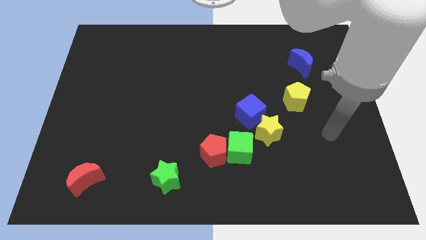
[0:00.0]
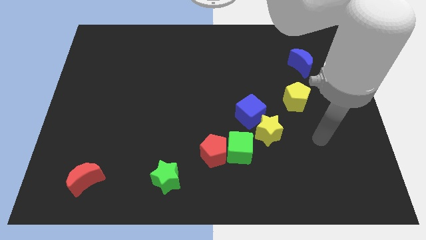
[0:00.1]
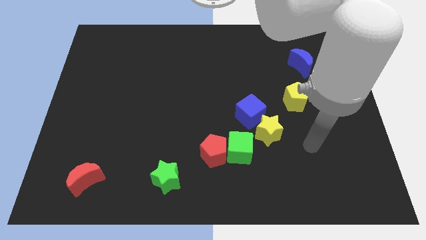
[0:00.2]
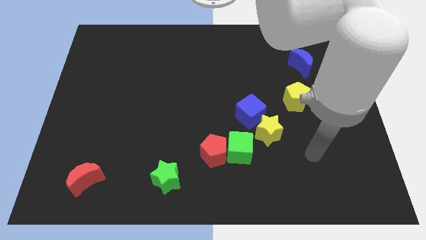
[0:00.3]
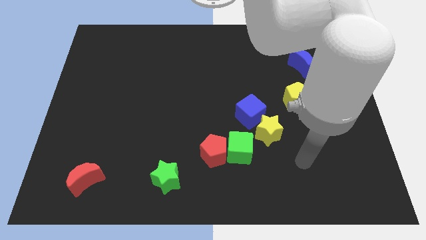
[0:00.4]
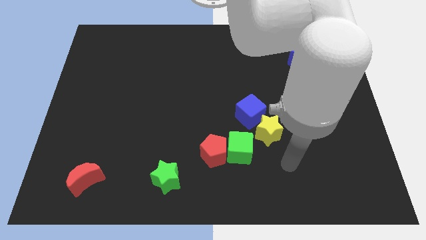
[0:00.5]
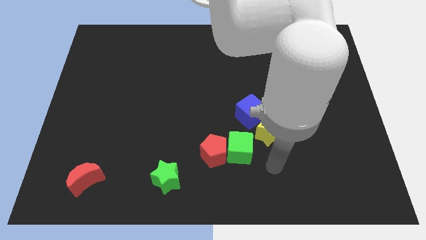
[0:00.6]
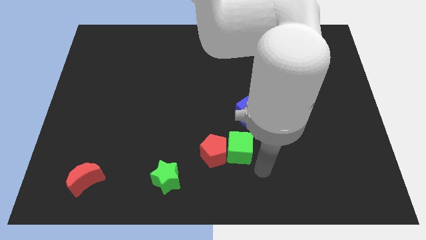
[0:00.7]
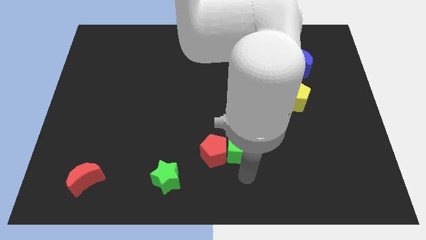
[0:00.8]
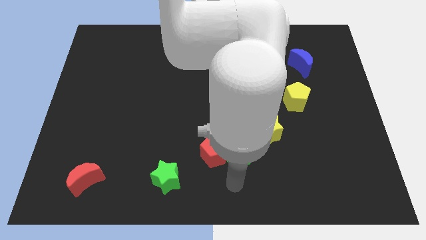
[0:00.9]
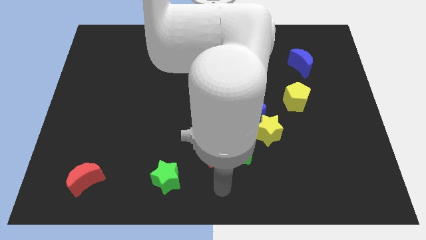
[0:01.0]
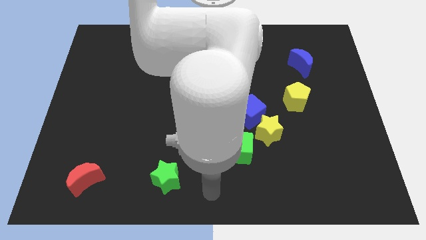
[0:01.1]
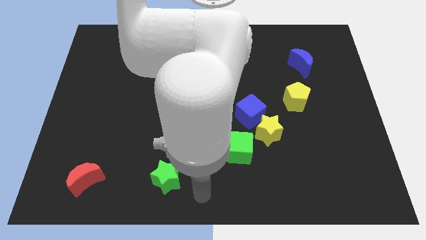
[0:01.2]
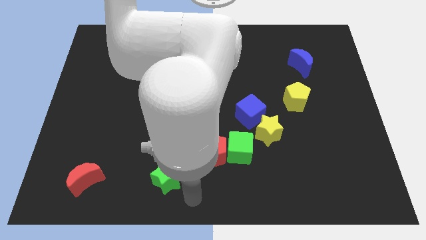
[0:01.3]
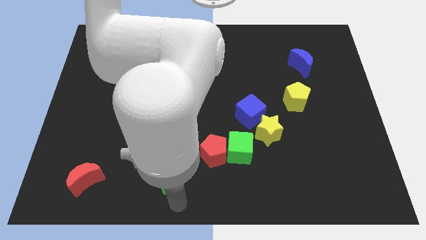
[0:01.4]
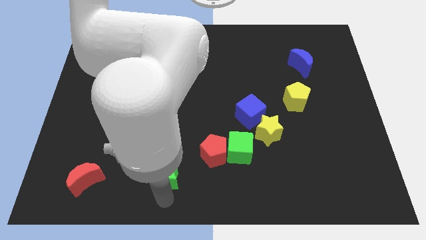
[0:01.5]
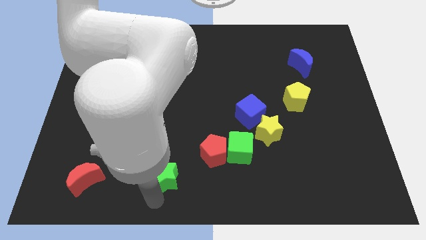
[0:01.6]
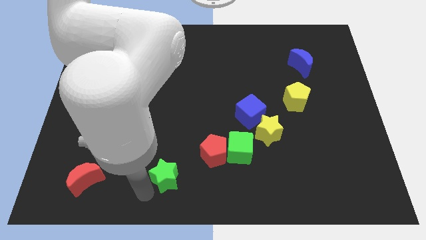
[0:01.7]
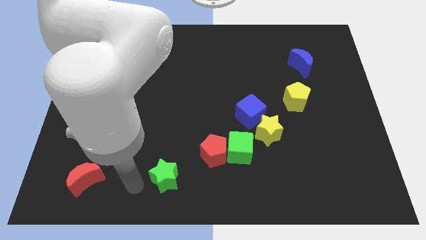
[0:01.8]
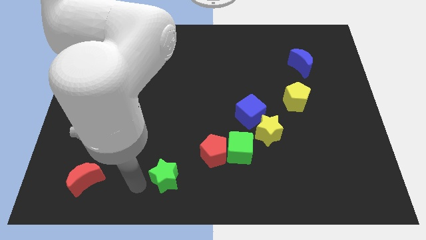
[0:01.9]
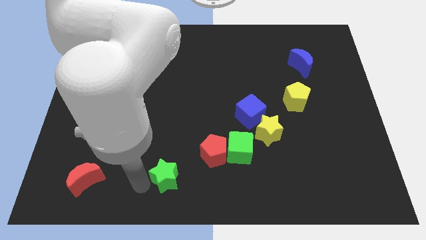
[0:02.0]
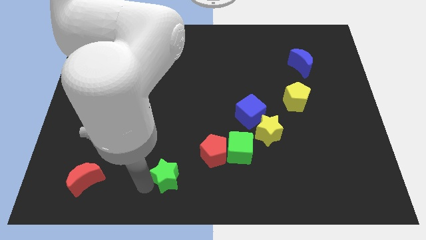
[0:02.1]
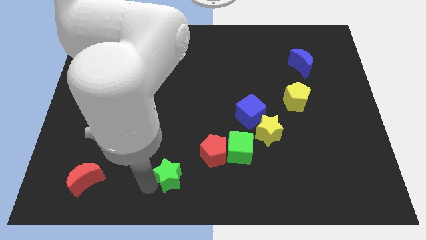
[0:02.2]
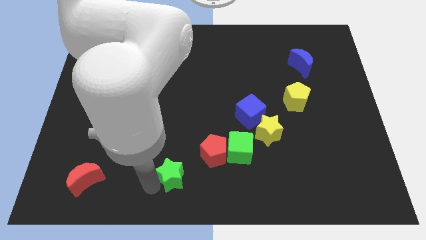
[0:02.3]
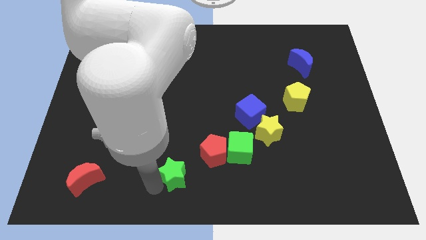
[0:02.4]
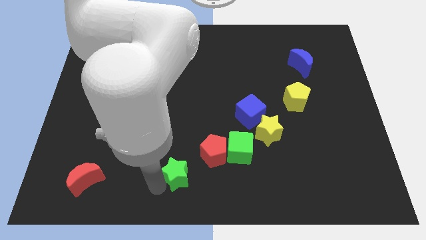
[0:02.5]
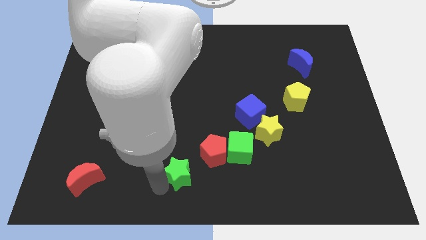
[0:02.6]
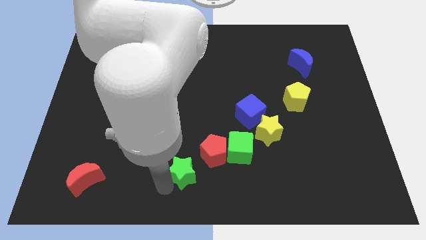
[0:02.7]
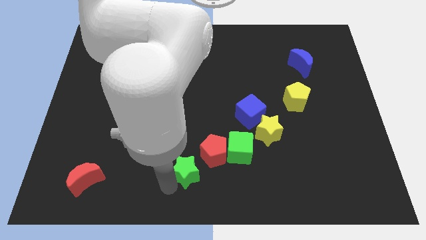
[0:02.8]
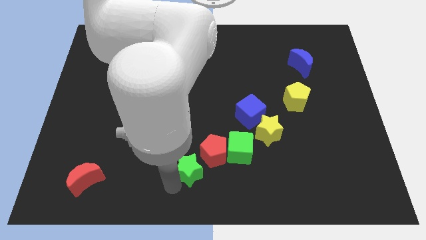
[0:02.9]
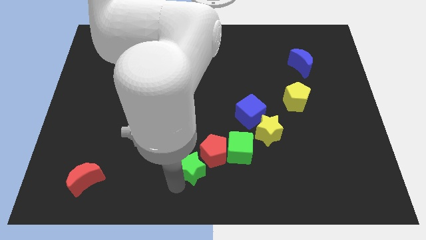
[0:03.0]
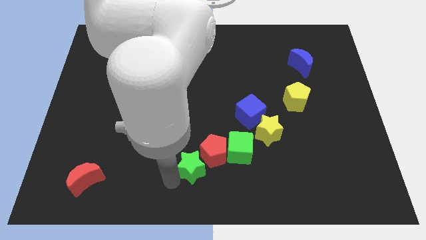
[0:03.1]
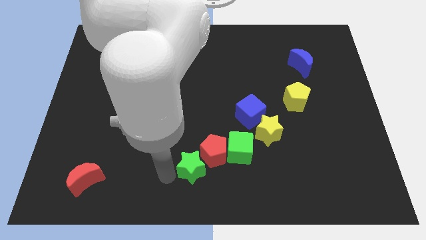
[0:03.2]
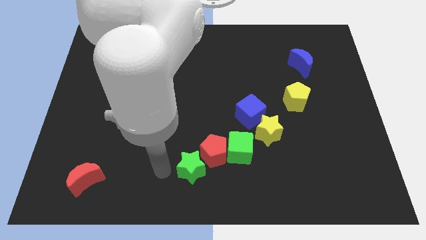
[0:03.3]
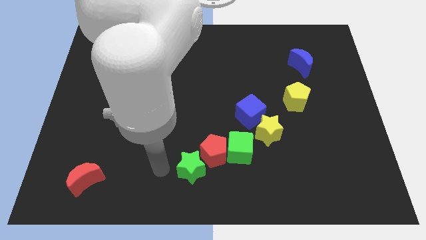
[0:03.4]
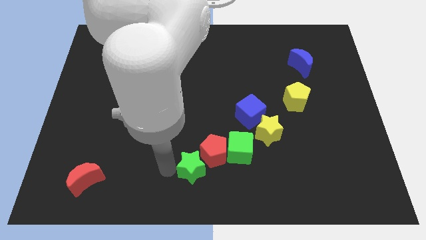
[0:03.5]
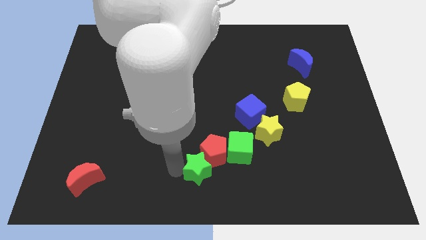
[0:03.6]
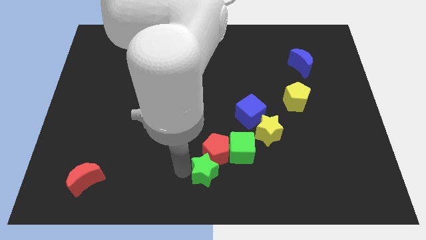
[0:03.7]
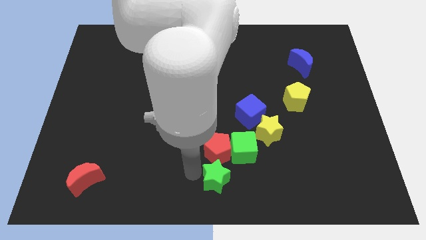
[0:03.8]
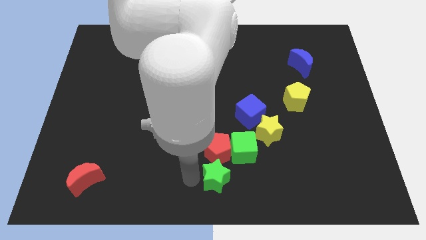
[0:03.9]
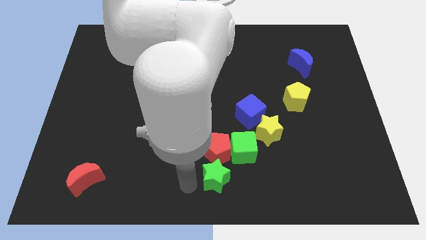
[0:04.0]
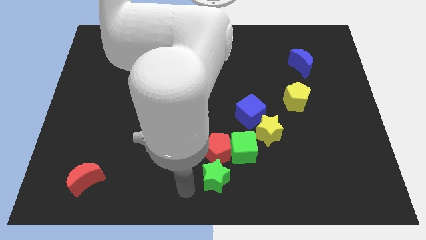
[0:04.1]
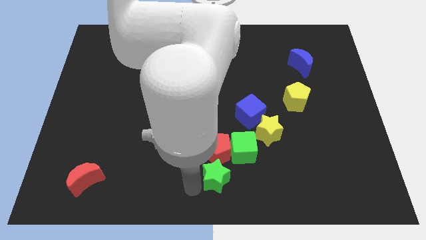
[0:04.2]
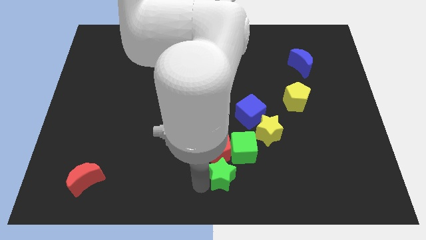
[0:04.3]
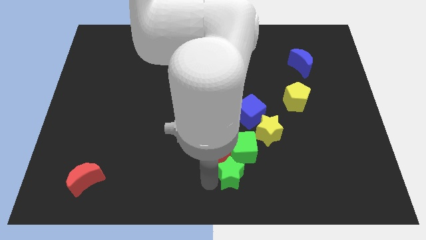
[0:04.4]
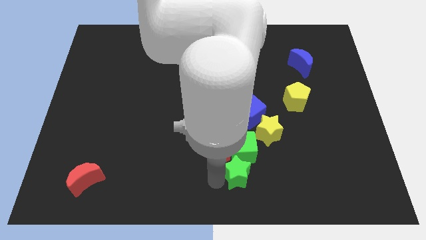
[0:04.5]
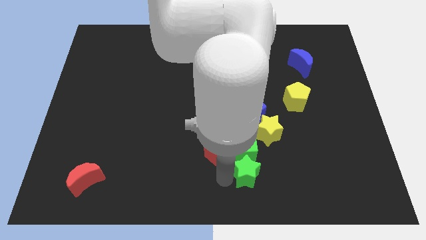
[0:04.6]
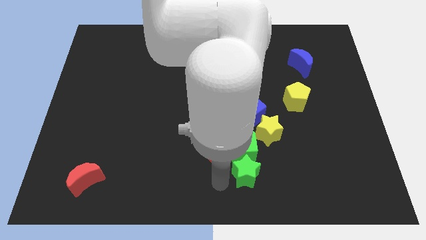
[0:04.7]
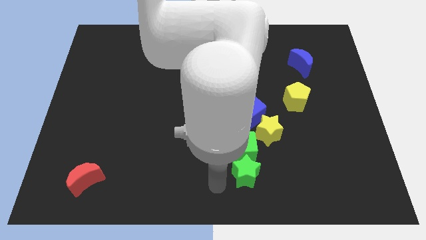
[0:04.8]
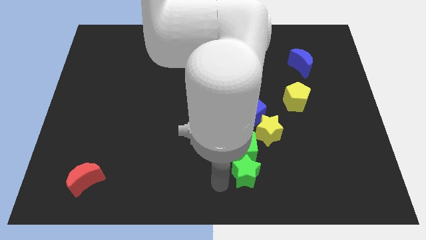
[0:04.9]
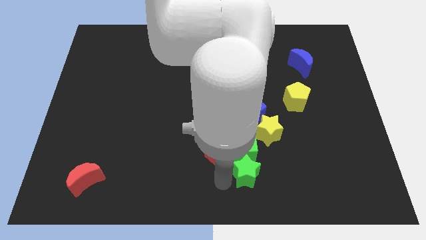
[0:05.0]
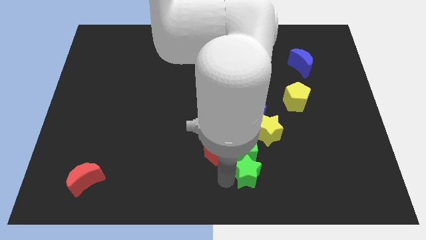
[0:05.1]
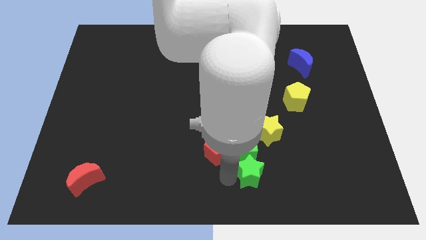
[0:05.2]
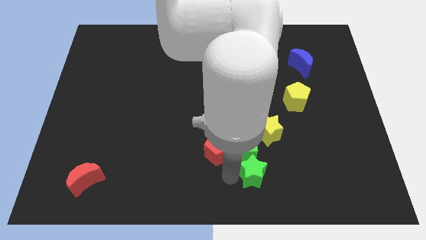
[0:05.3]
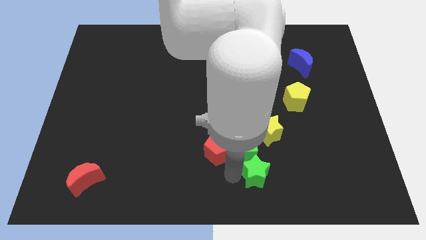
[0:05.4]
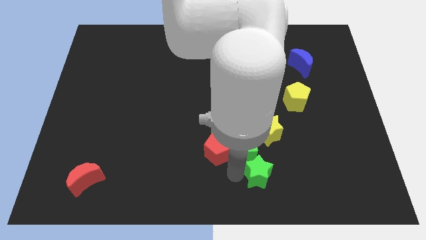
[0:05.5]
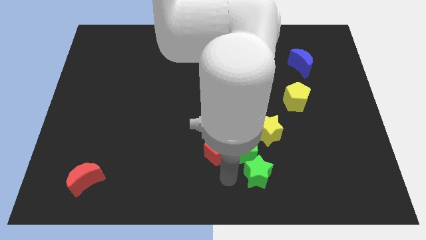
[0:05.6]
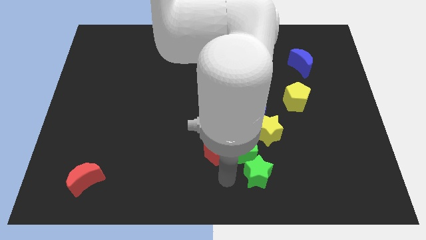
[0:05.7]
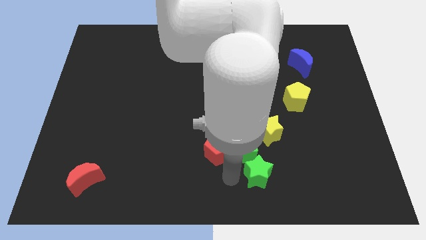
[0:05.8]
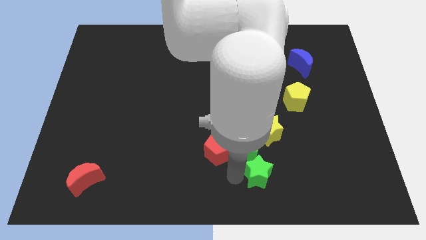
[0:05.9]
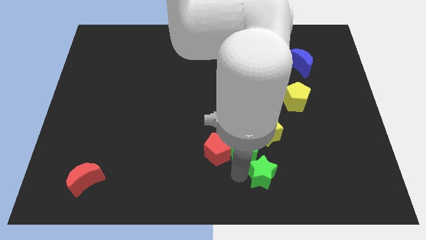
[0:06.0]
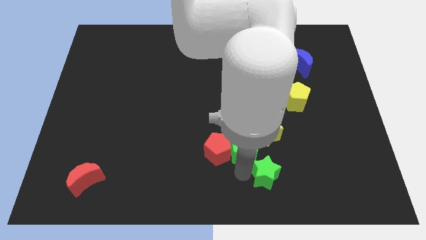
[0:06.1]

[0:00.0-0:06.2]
slide the green star right

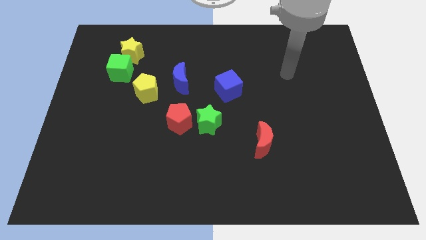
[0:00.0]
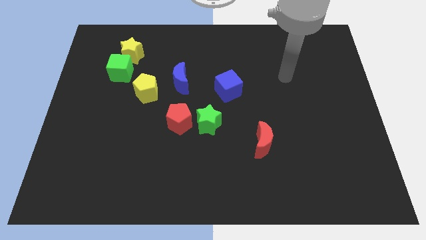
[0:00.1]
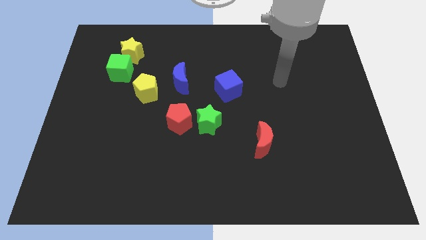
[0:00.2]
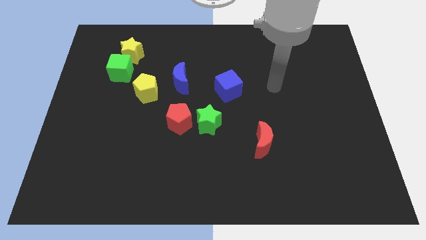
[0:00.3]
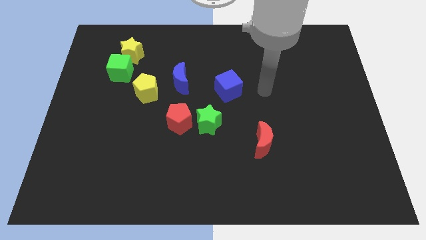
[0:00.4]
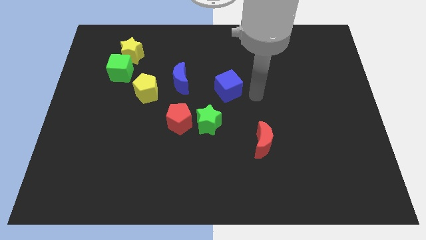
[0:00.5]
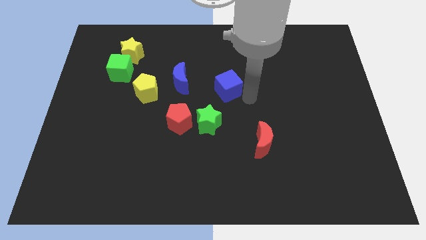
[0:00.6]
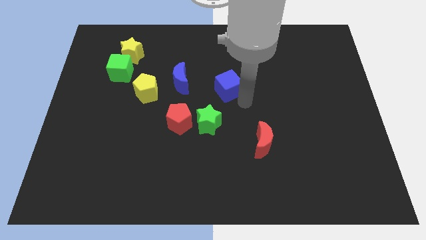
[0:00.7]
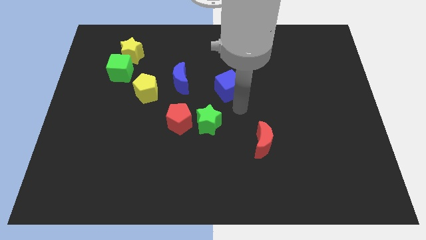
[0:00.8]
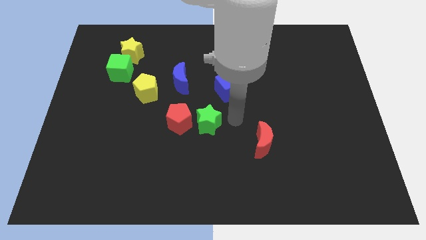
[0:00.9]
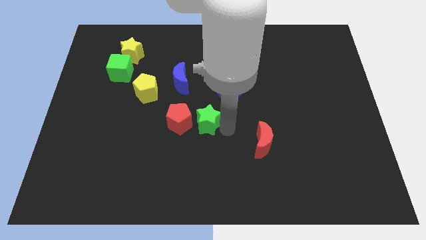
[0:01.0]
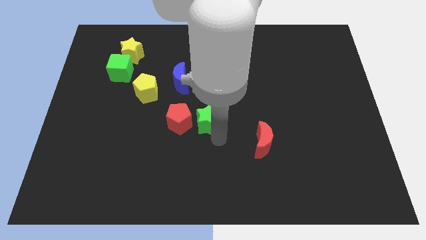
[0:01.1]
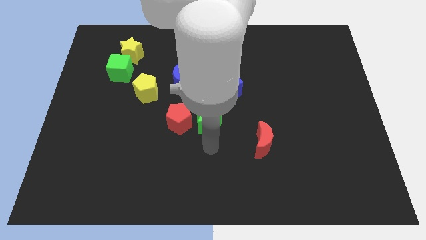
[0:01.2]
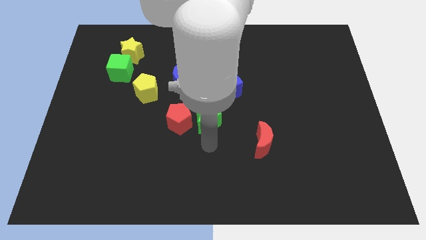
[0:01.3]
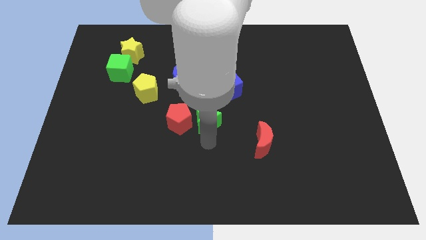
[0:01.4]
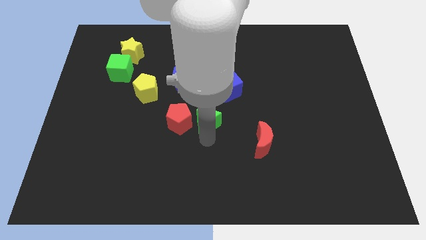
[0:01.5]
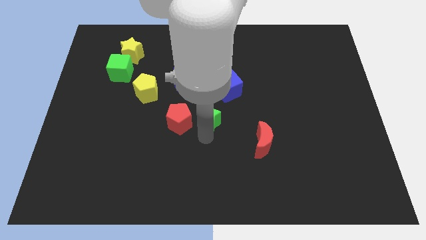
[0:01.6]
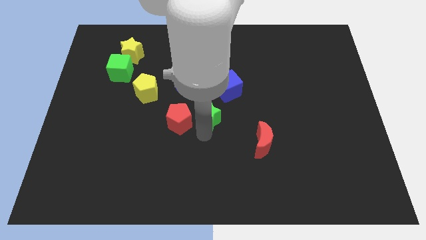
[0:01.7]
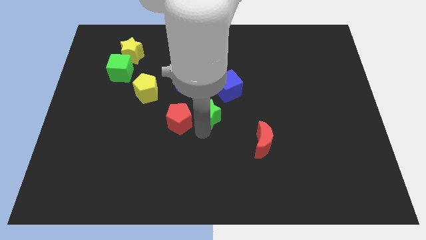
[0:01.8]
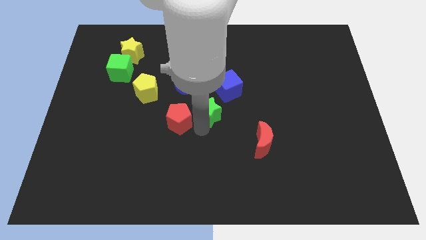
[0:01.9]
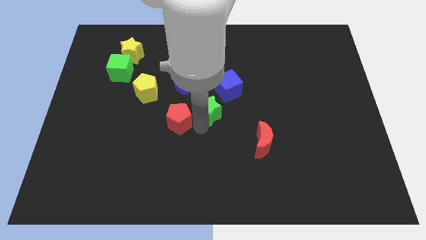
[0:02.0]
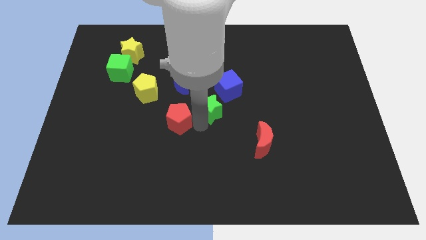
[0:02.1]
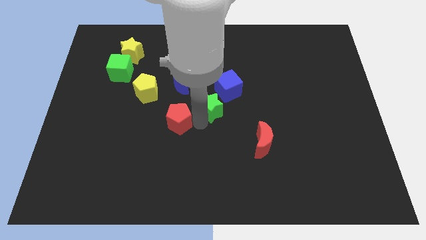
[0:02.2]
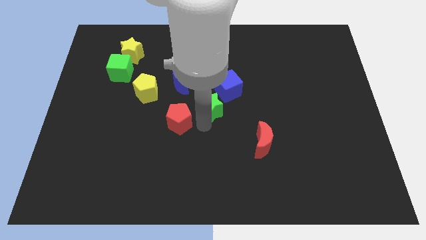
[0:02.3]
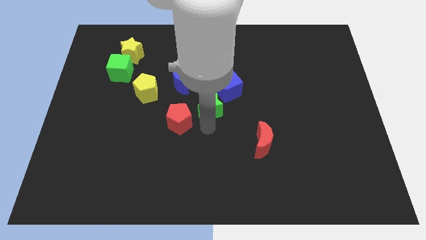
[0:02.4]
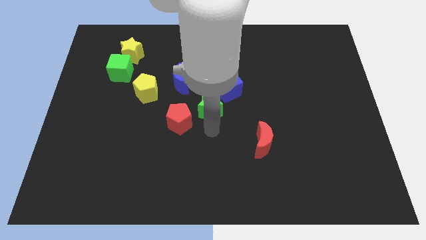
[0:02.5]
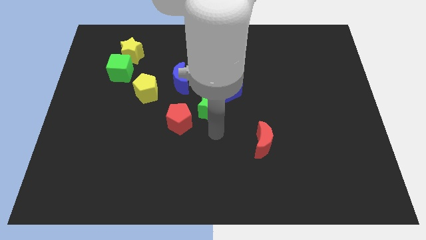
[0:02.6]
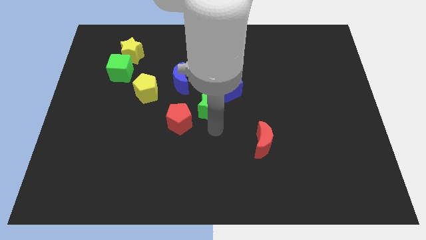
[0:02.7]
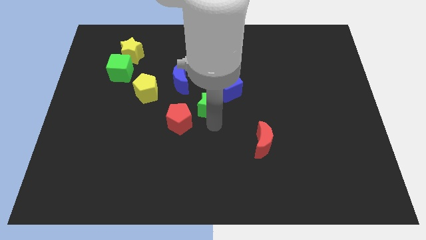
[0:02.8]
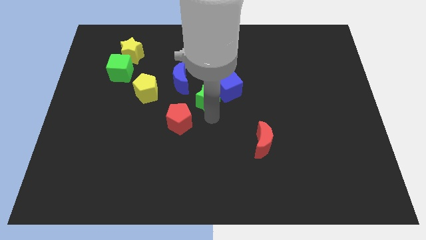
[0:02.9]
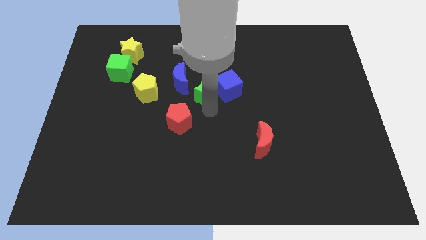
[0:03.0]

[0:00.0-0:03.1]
slide the green star a bit upwards
